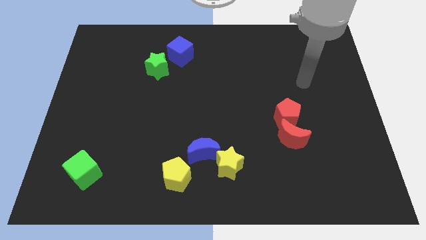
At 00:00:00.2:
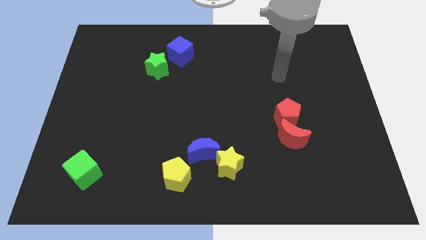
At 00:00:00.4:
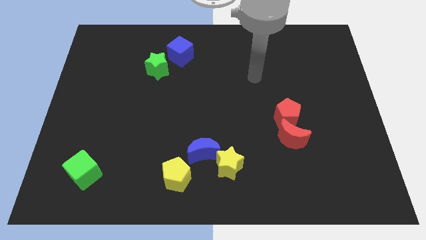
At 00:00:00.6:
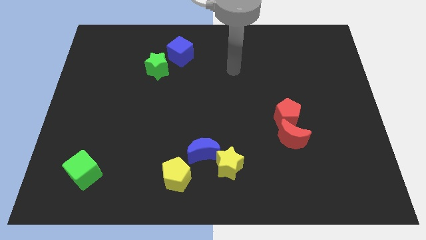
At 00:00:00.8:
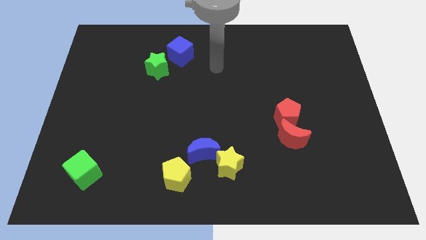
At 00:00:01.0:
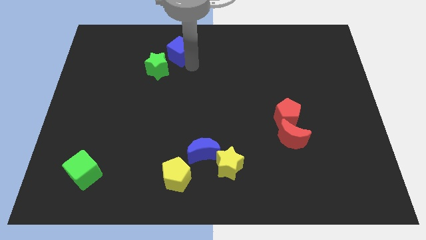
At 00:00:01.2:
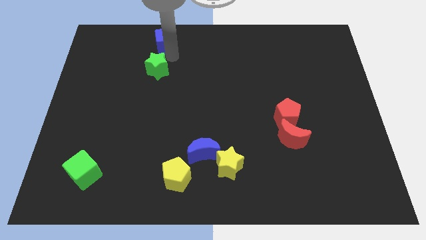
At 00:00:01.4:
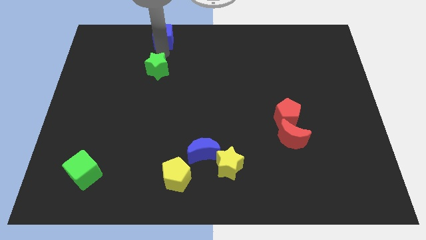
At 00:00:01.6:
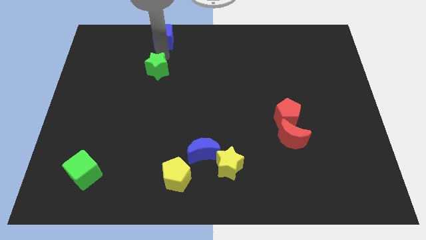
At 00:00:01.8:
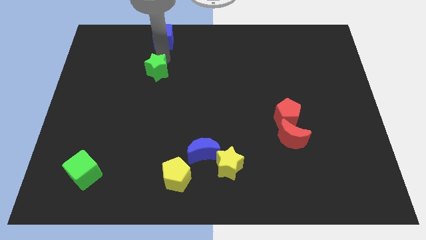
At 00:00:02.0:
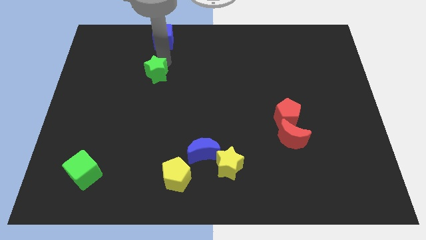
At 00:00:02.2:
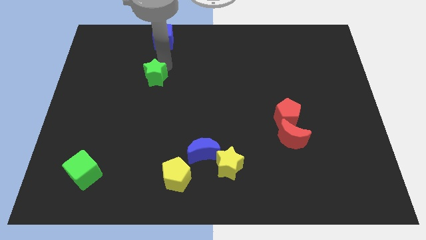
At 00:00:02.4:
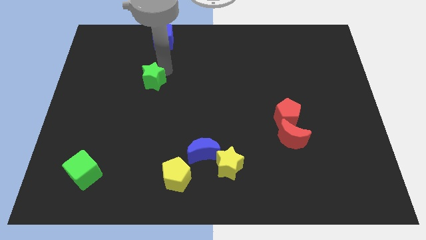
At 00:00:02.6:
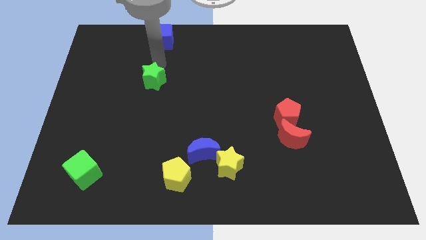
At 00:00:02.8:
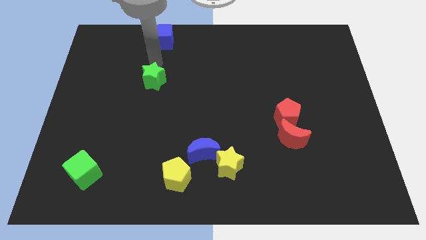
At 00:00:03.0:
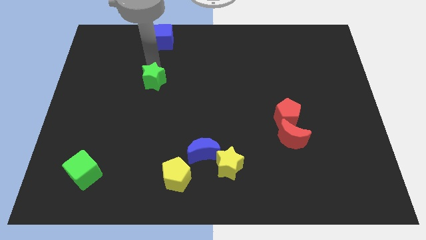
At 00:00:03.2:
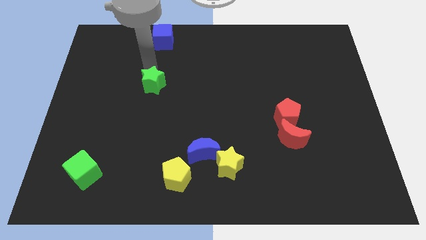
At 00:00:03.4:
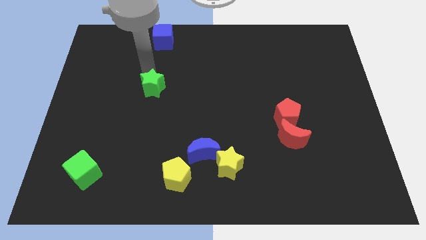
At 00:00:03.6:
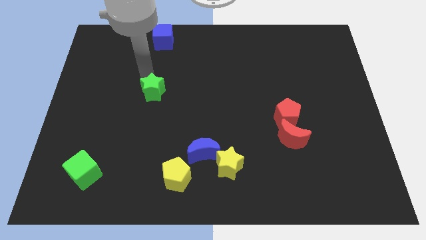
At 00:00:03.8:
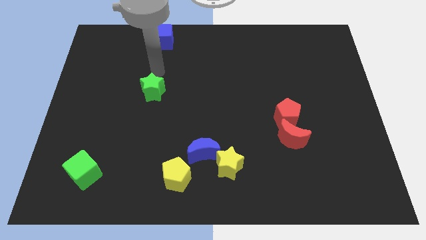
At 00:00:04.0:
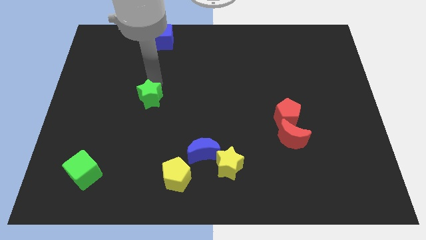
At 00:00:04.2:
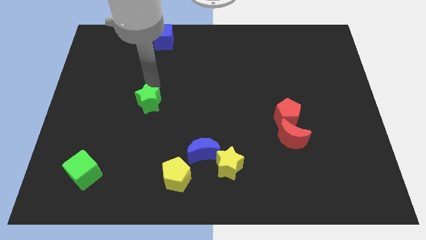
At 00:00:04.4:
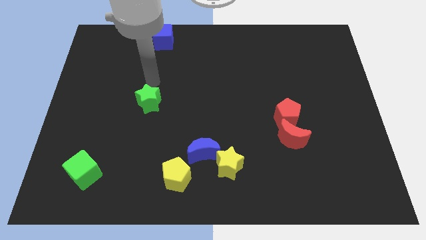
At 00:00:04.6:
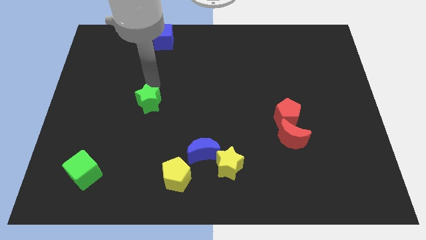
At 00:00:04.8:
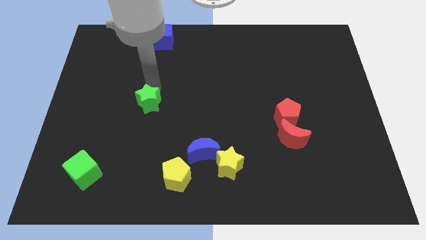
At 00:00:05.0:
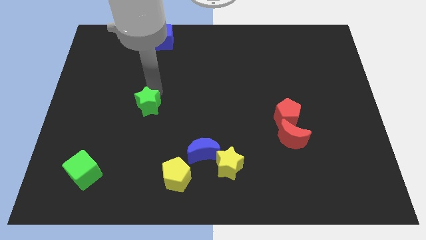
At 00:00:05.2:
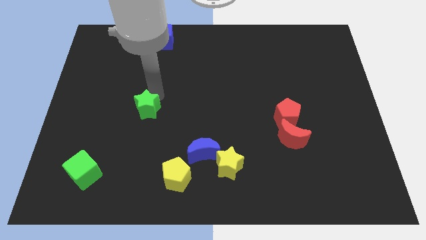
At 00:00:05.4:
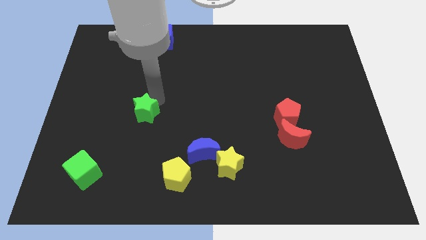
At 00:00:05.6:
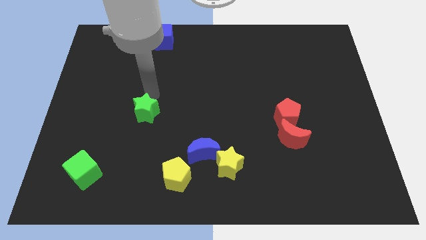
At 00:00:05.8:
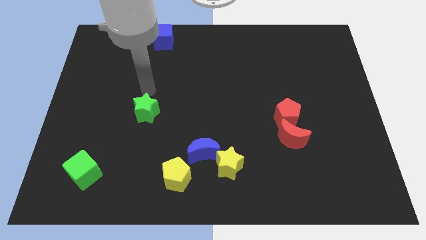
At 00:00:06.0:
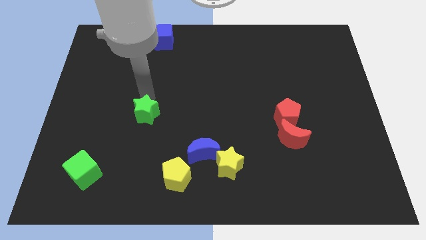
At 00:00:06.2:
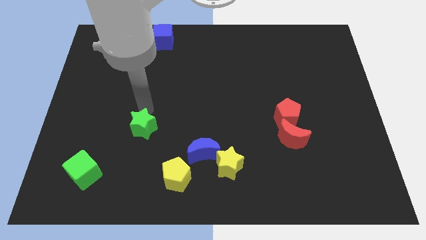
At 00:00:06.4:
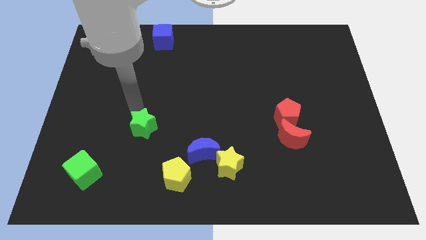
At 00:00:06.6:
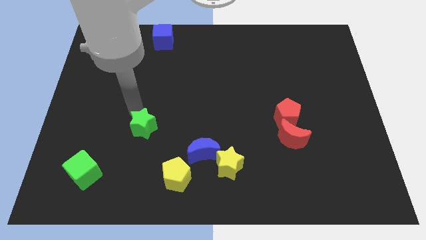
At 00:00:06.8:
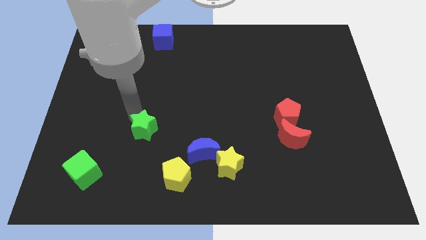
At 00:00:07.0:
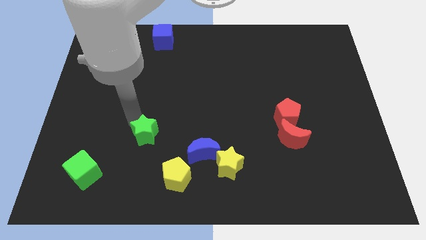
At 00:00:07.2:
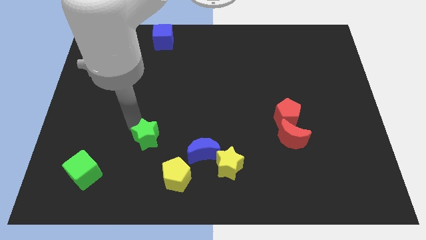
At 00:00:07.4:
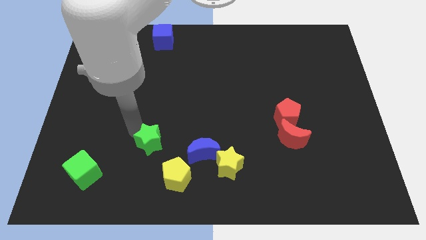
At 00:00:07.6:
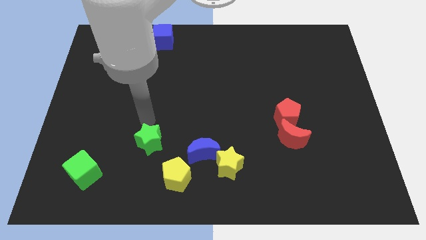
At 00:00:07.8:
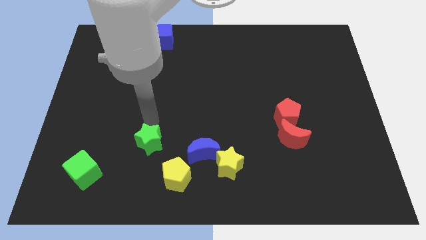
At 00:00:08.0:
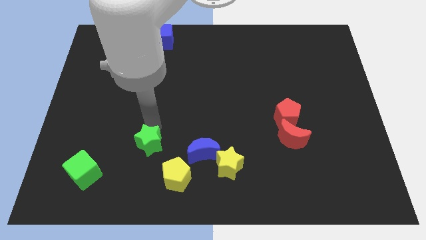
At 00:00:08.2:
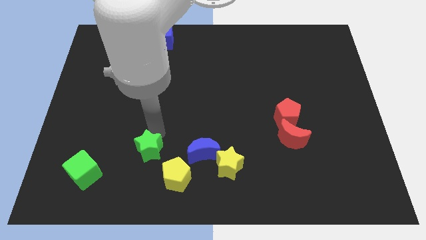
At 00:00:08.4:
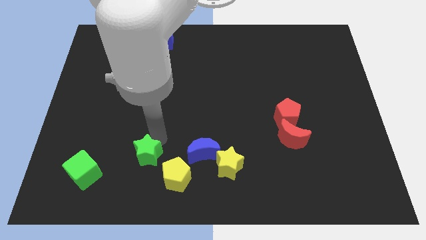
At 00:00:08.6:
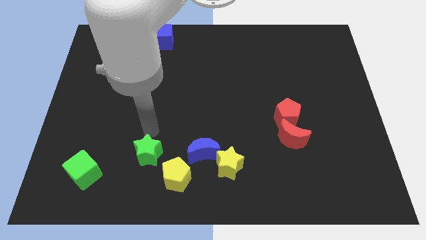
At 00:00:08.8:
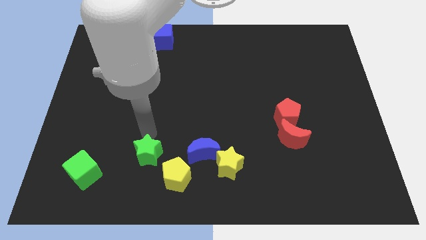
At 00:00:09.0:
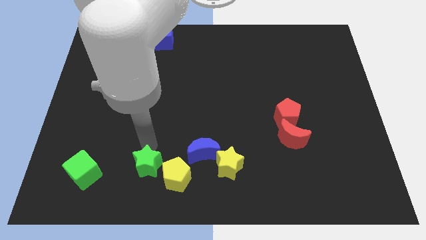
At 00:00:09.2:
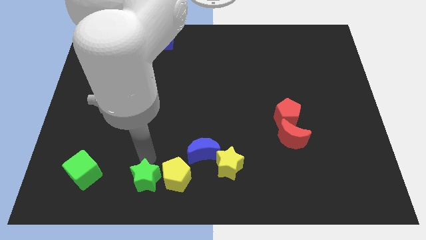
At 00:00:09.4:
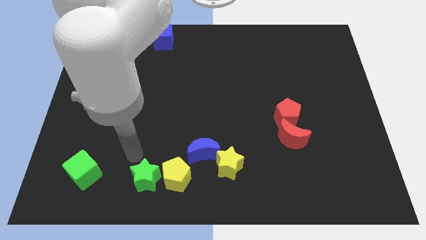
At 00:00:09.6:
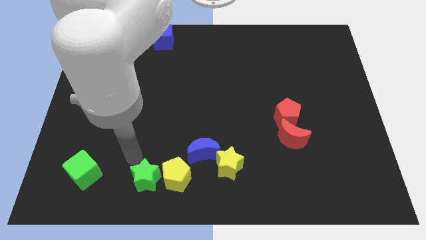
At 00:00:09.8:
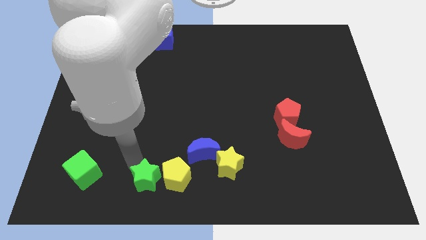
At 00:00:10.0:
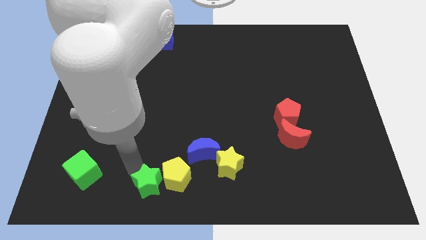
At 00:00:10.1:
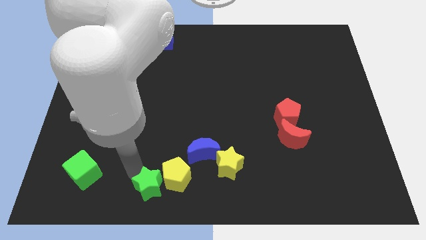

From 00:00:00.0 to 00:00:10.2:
slide the green star to the bottom

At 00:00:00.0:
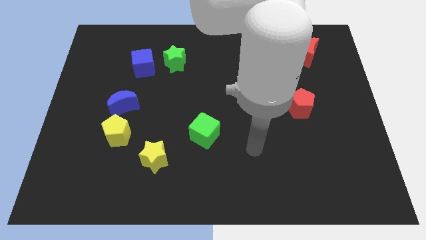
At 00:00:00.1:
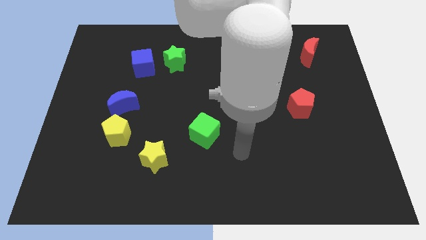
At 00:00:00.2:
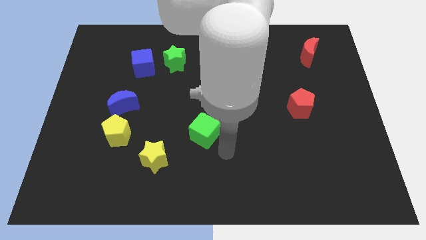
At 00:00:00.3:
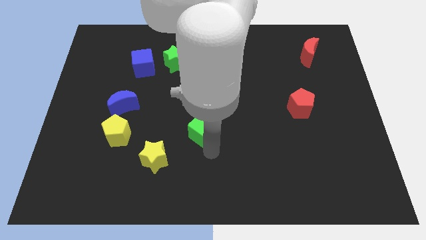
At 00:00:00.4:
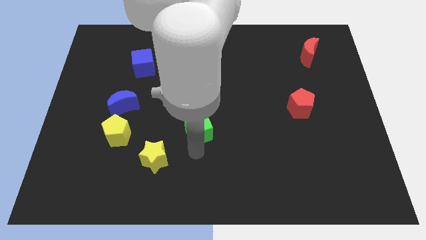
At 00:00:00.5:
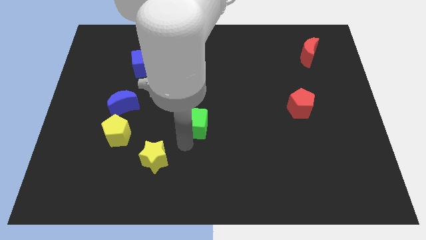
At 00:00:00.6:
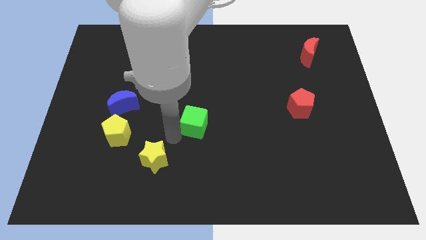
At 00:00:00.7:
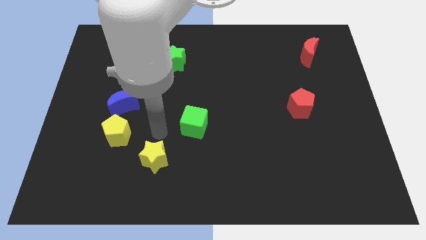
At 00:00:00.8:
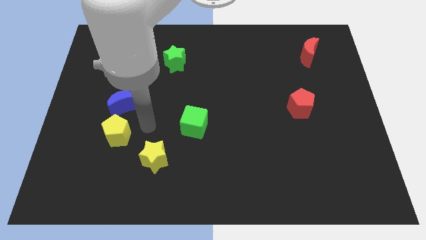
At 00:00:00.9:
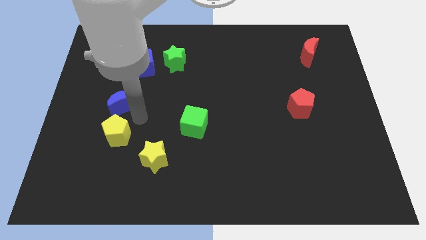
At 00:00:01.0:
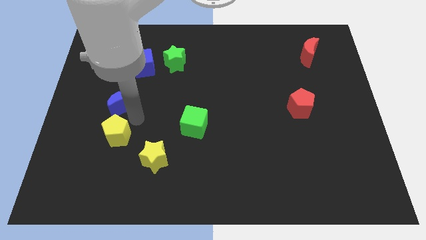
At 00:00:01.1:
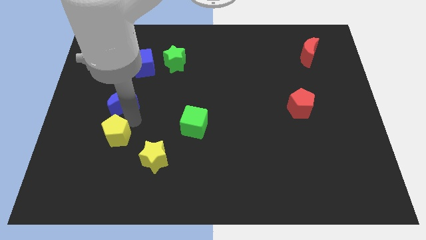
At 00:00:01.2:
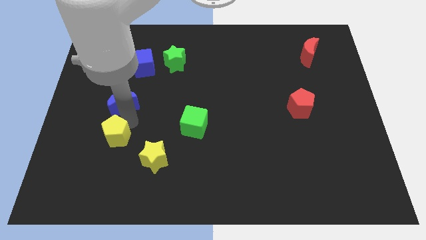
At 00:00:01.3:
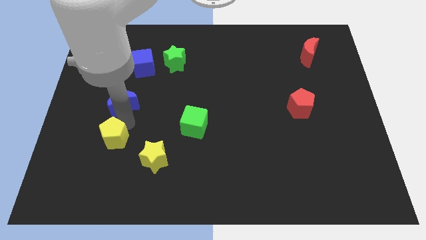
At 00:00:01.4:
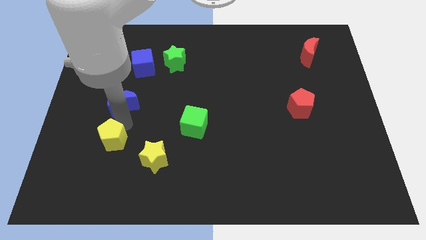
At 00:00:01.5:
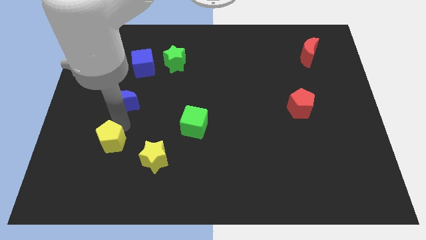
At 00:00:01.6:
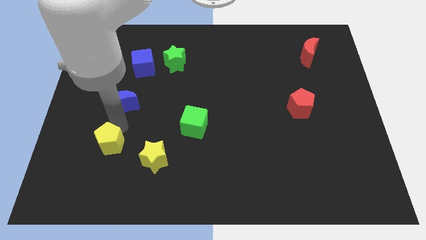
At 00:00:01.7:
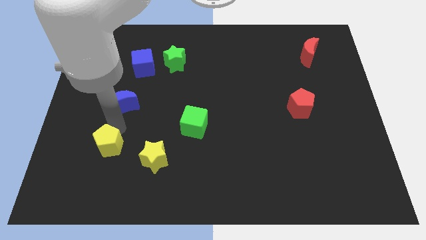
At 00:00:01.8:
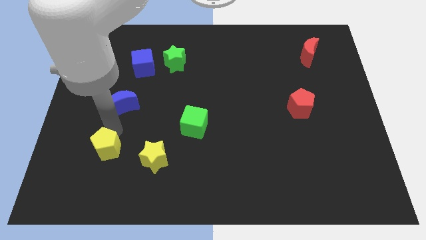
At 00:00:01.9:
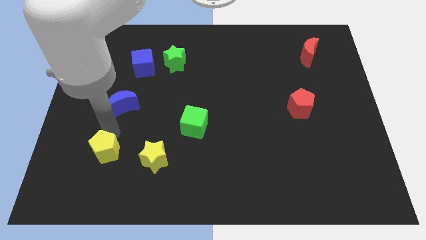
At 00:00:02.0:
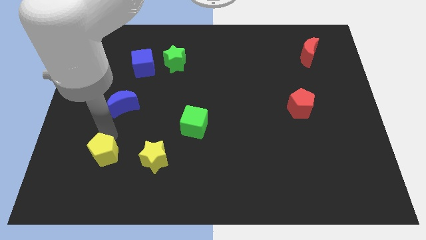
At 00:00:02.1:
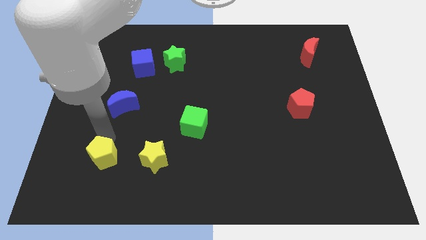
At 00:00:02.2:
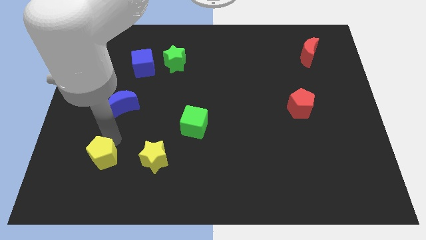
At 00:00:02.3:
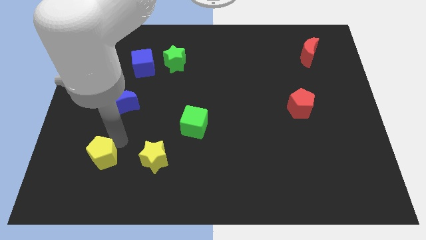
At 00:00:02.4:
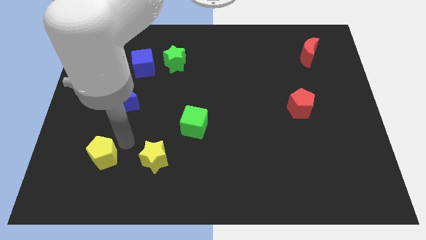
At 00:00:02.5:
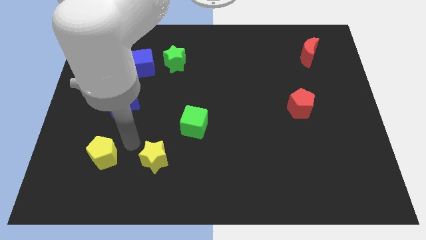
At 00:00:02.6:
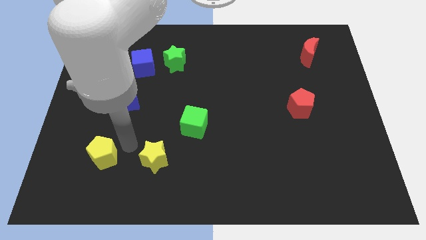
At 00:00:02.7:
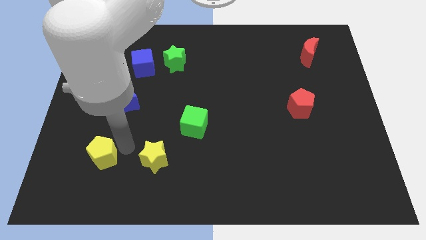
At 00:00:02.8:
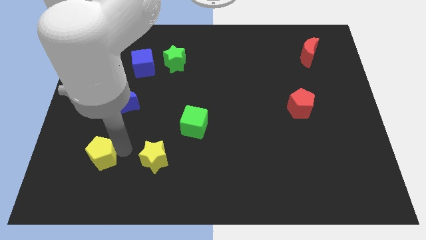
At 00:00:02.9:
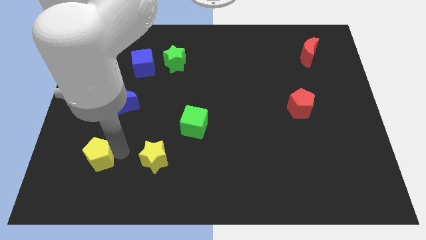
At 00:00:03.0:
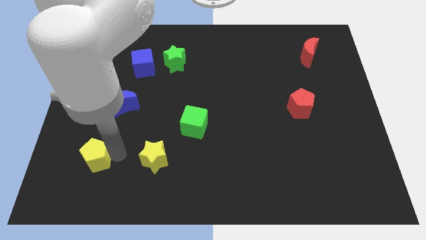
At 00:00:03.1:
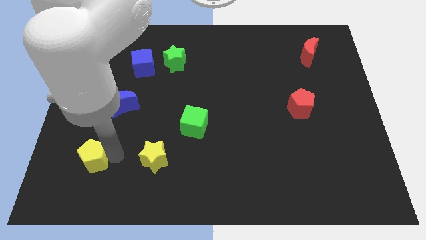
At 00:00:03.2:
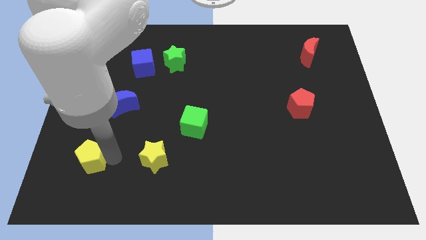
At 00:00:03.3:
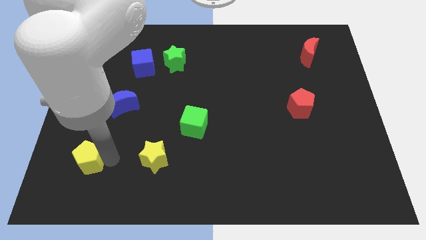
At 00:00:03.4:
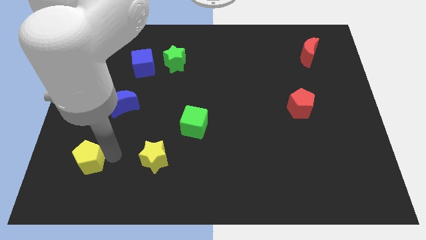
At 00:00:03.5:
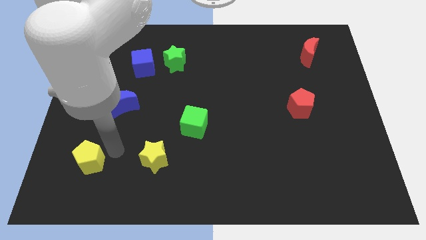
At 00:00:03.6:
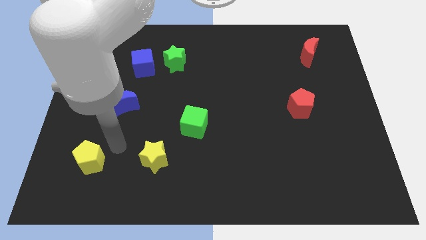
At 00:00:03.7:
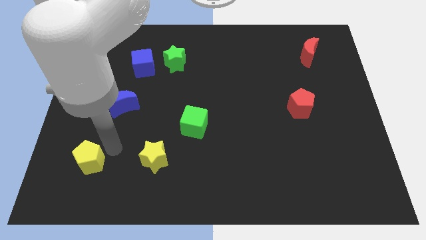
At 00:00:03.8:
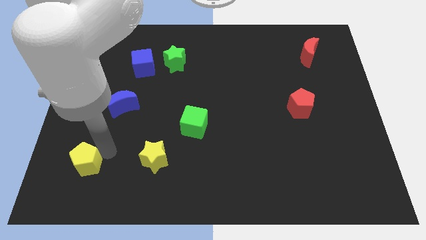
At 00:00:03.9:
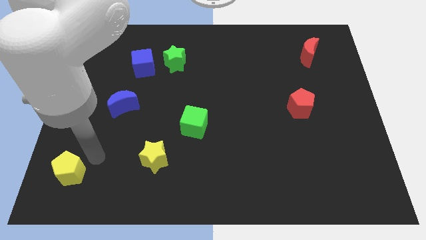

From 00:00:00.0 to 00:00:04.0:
put the yellow pentagon to the lower left corner
